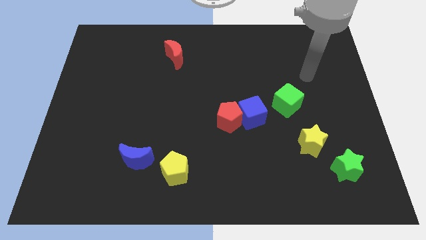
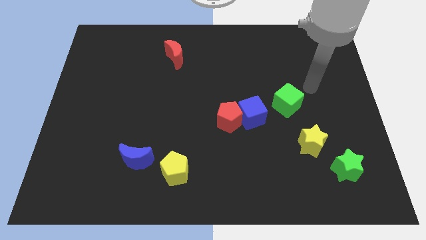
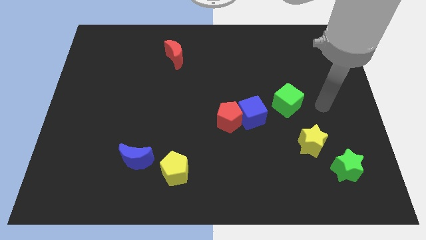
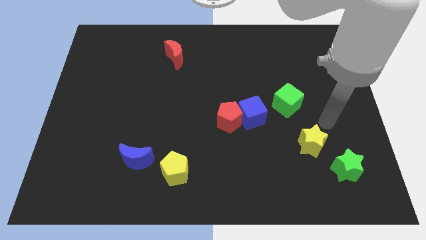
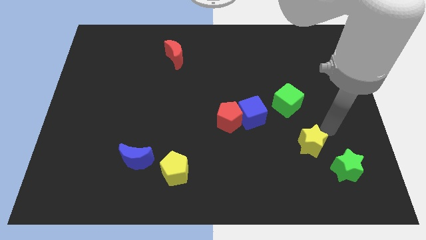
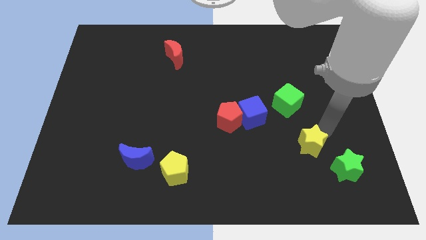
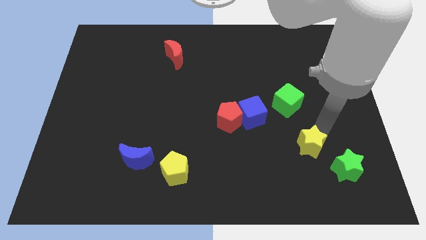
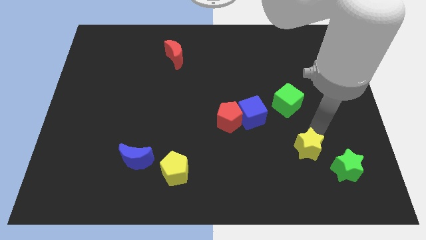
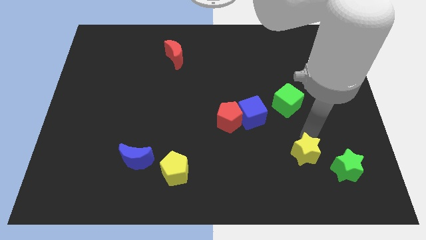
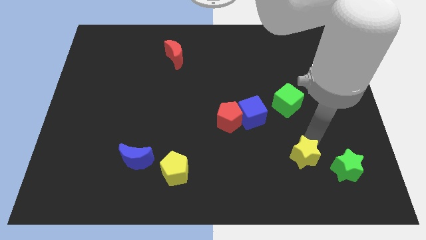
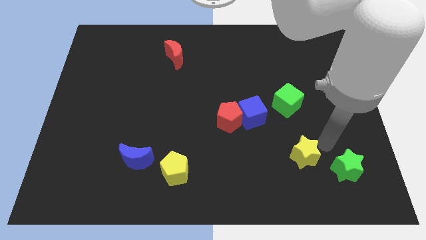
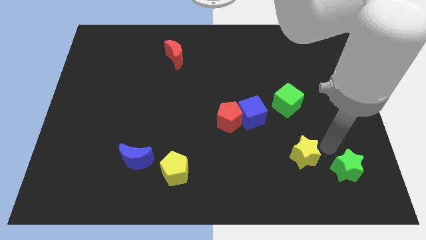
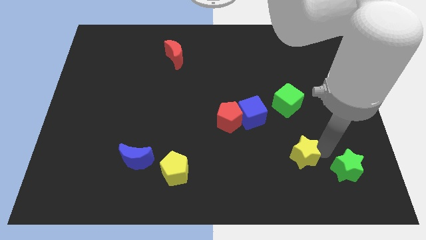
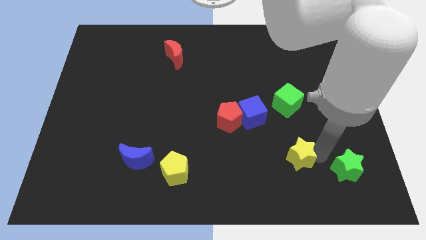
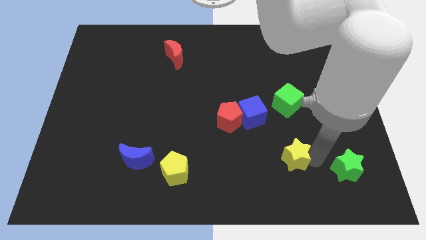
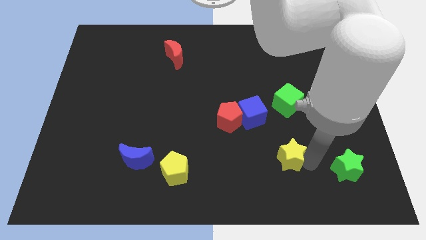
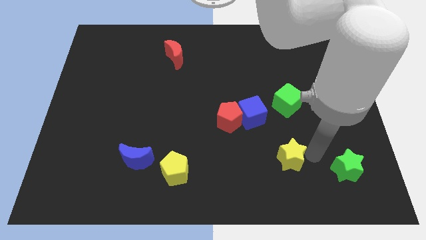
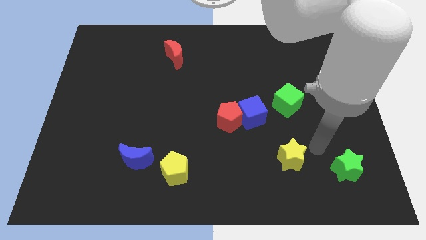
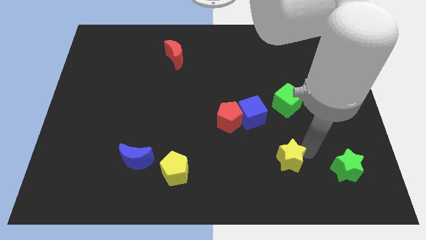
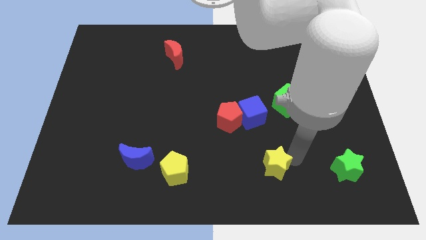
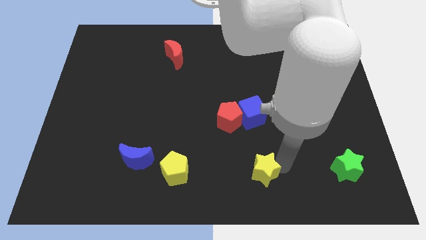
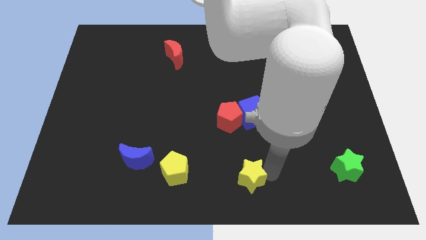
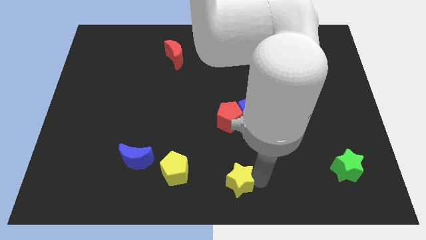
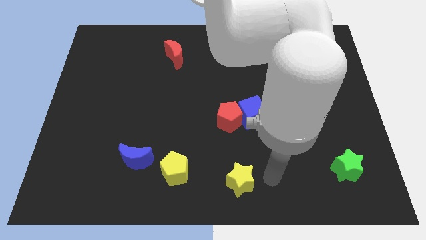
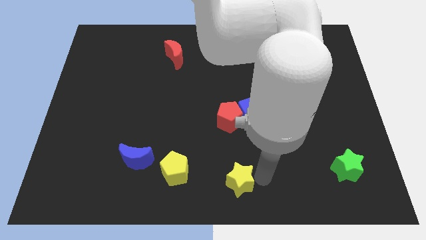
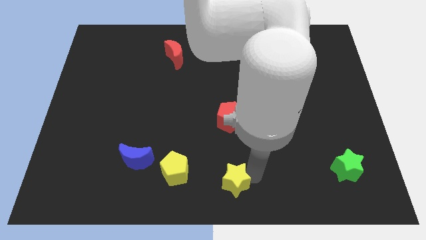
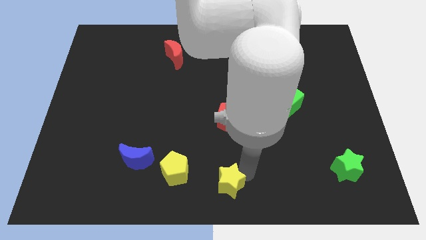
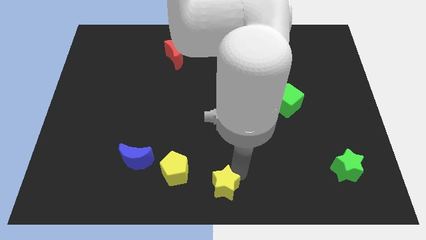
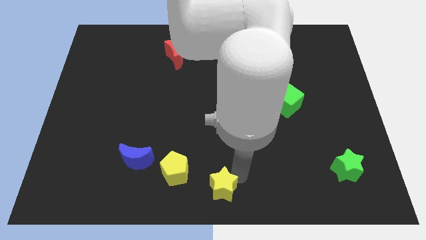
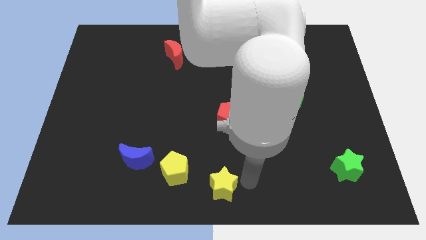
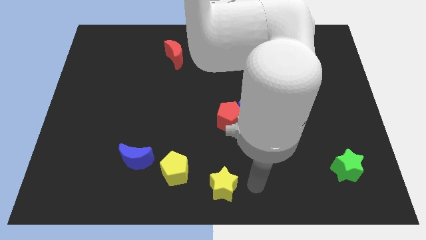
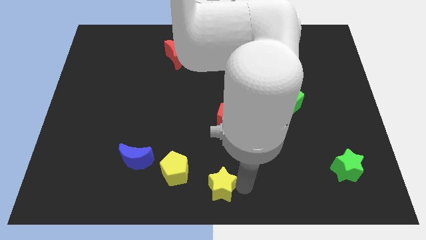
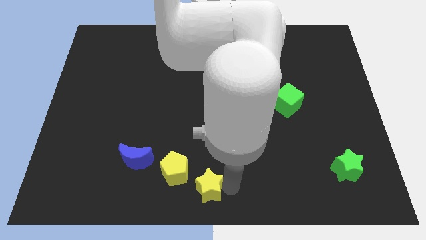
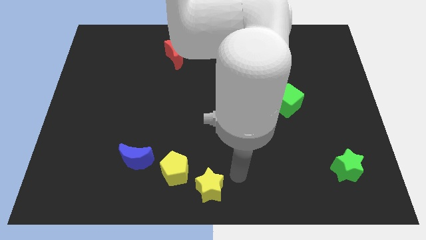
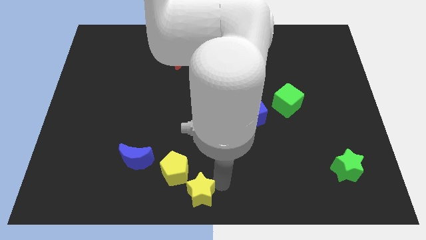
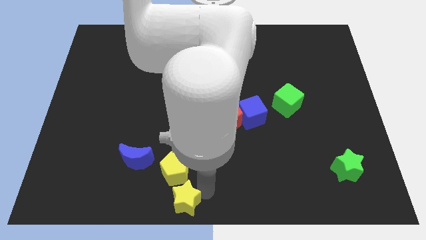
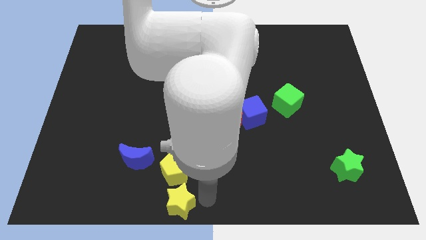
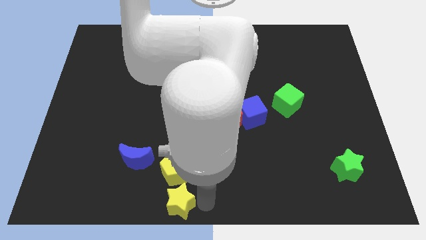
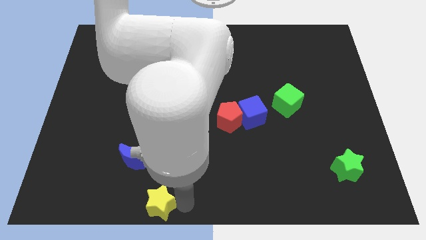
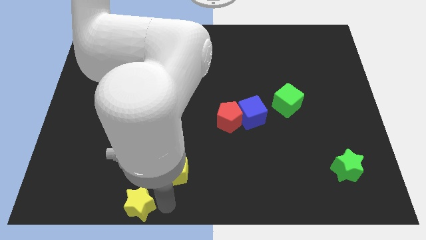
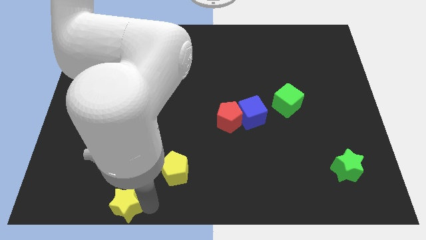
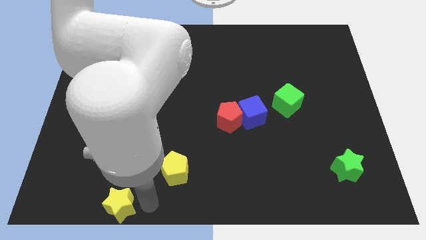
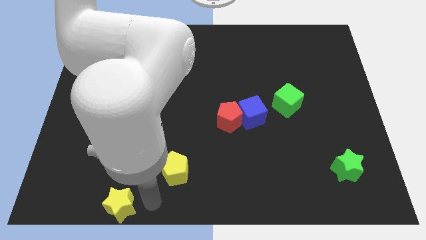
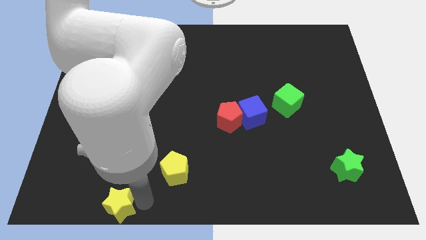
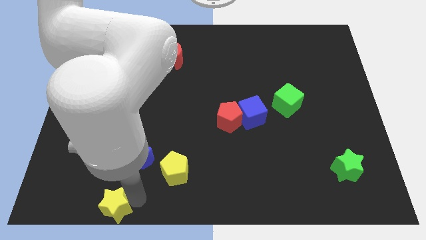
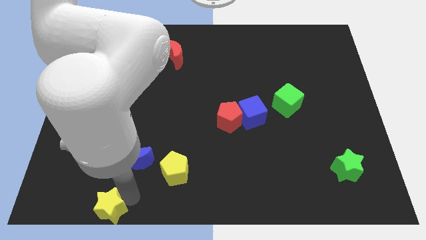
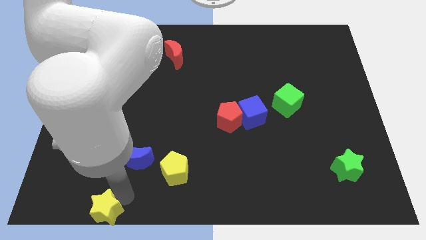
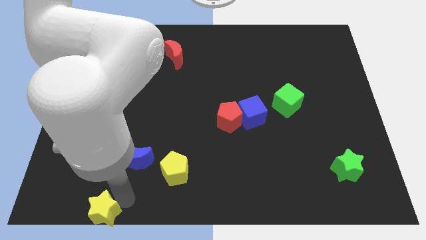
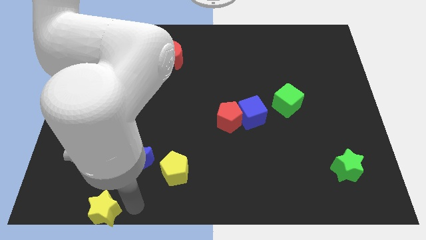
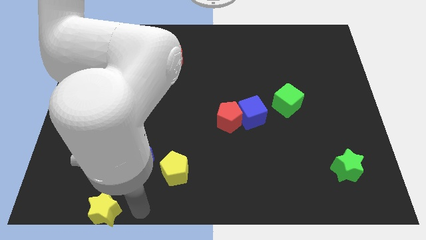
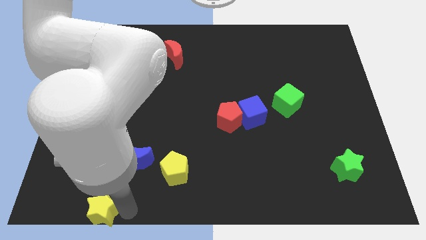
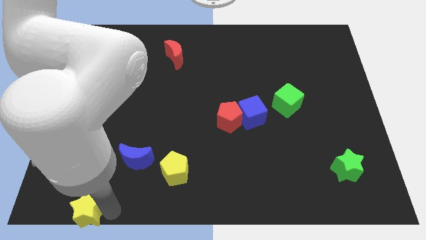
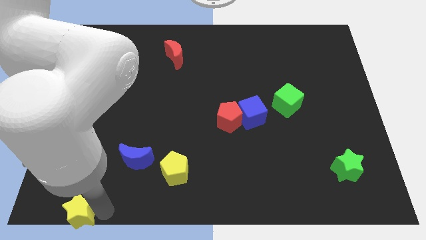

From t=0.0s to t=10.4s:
push the yellow star to the bottom left corner

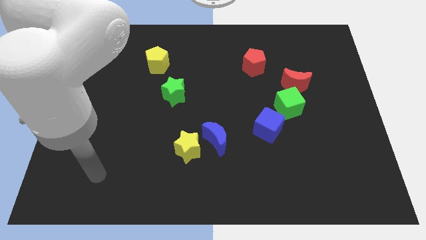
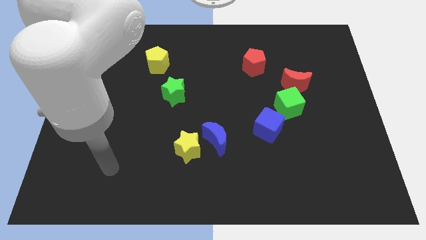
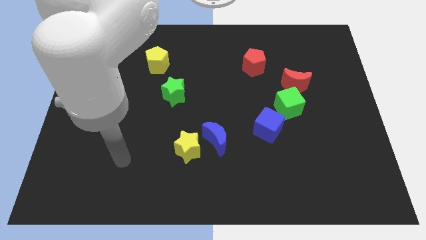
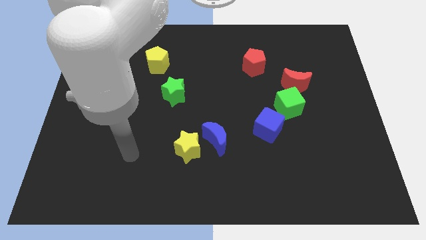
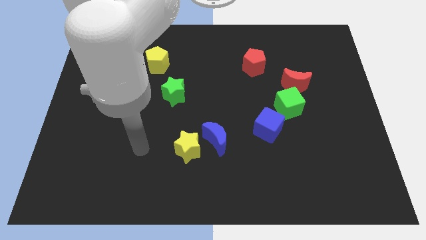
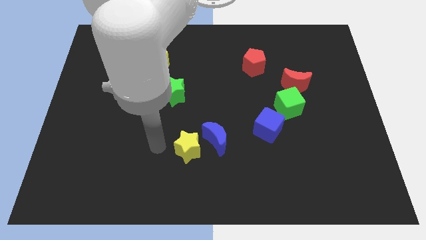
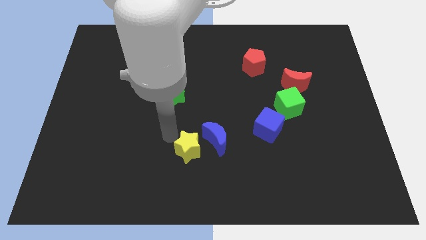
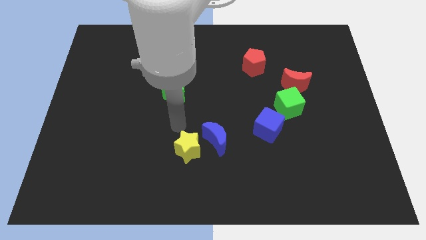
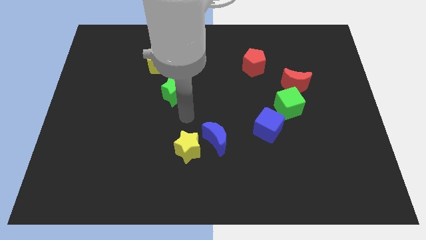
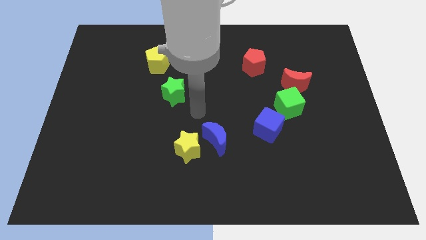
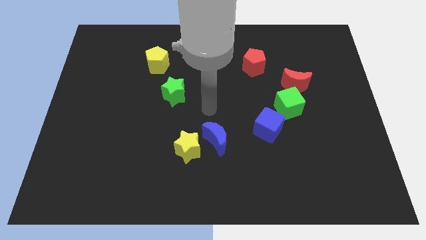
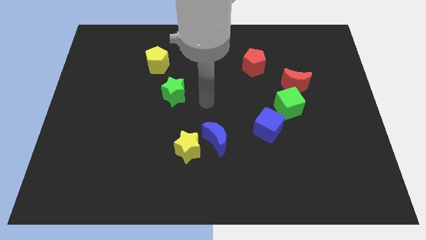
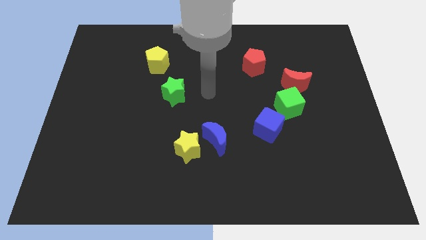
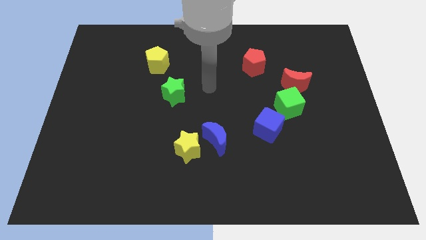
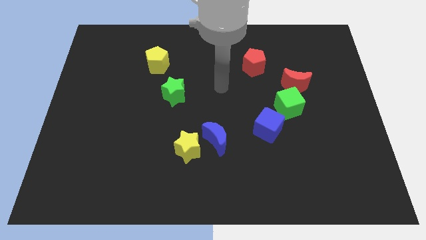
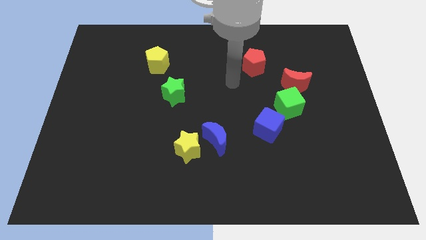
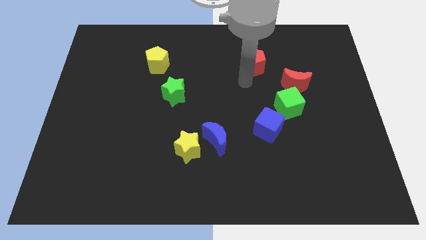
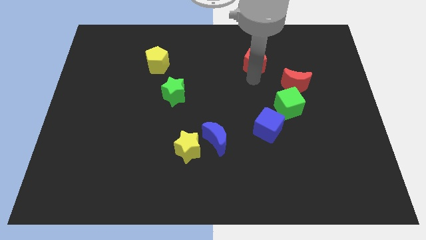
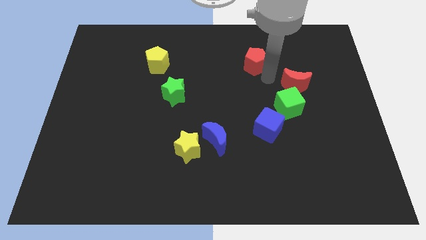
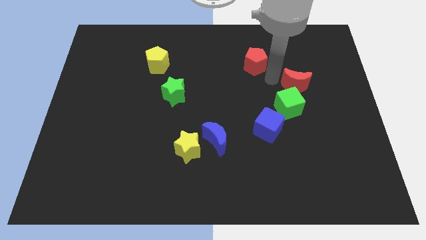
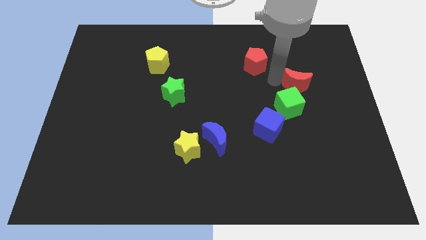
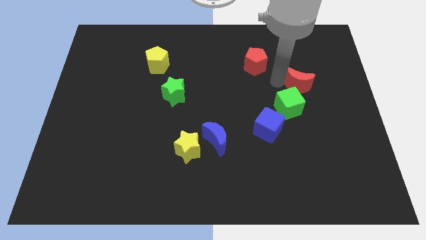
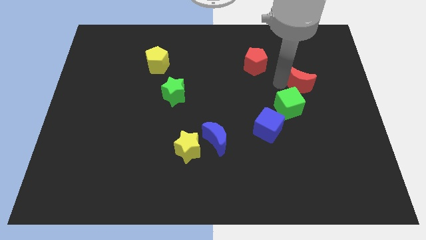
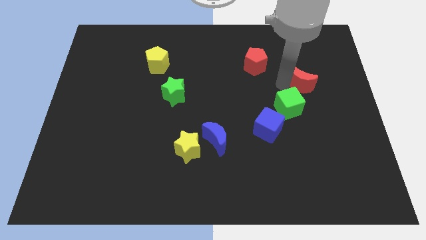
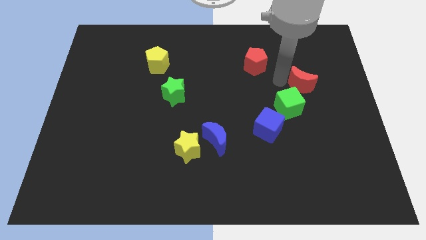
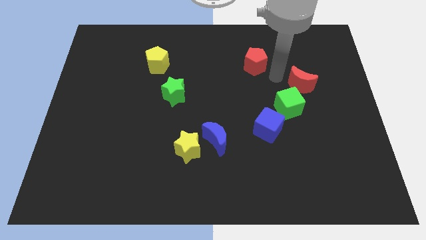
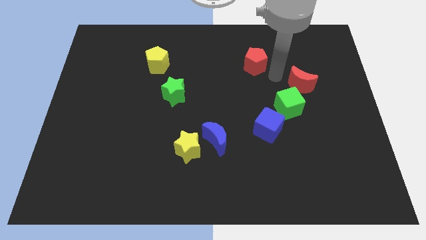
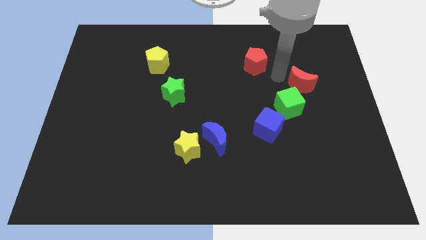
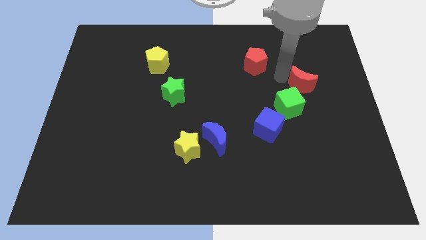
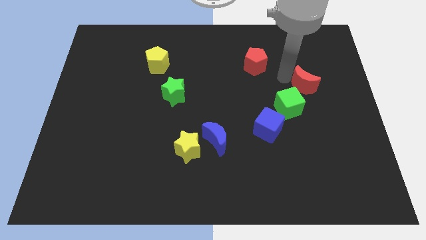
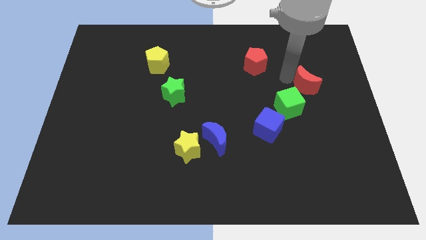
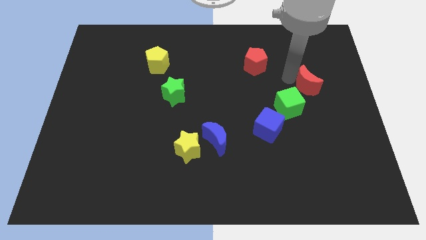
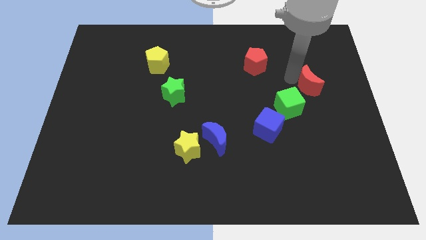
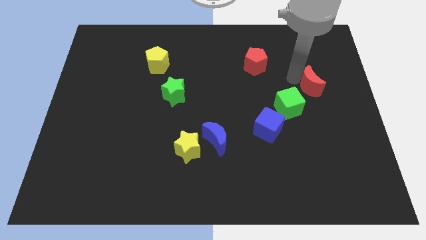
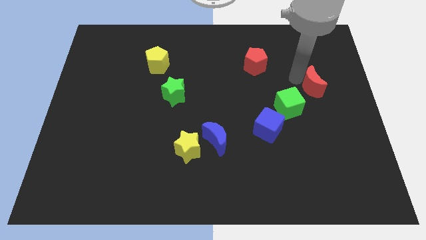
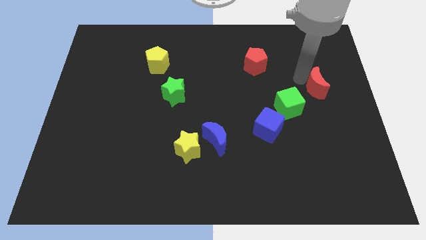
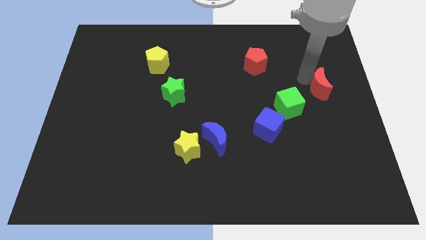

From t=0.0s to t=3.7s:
slide the red moon to the center right
